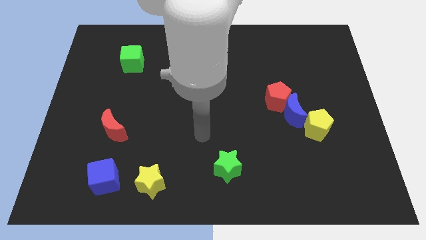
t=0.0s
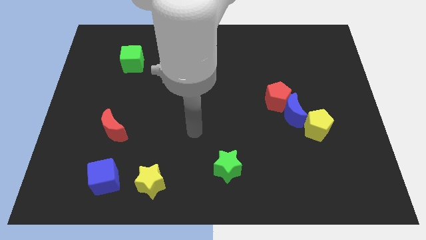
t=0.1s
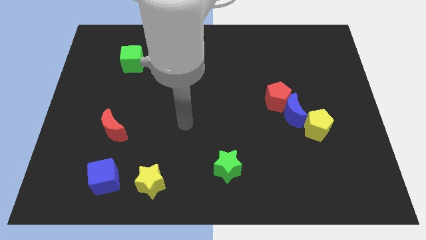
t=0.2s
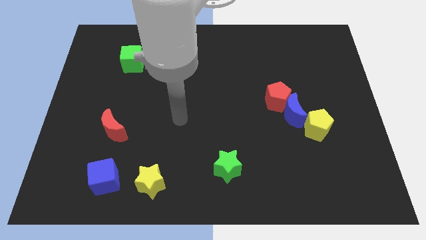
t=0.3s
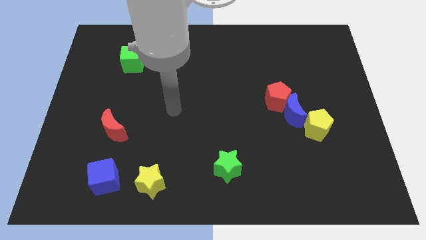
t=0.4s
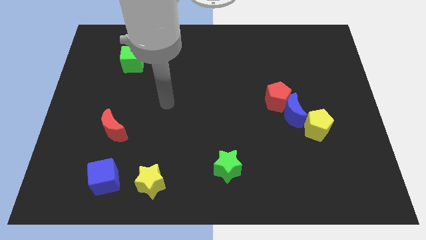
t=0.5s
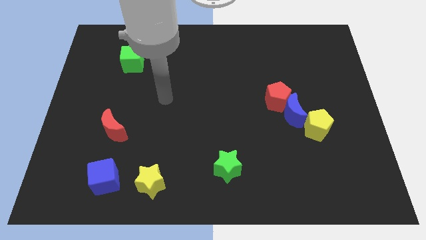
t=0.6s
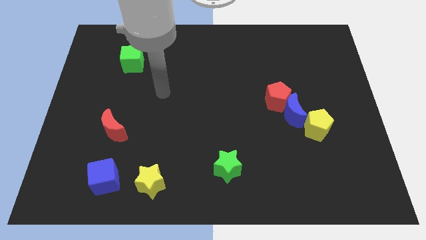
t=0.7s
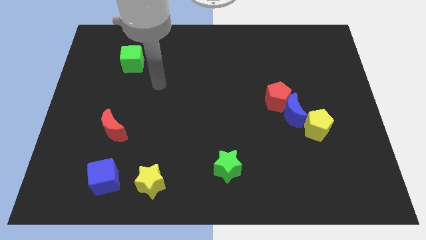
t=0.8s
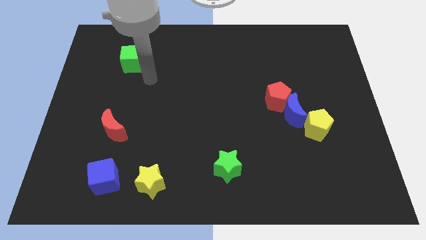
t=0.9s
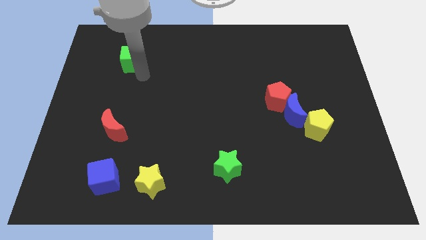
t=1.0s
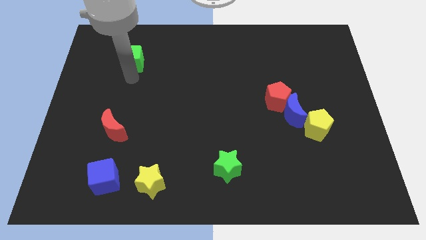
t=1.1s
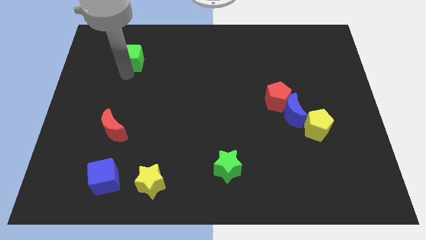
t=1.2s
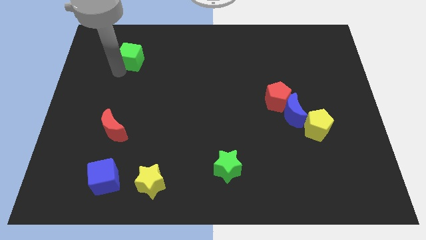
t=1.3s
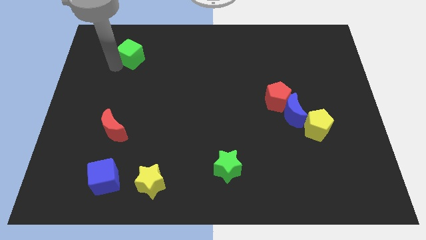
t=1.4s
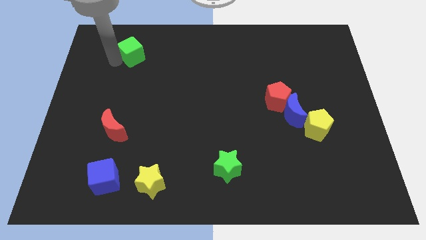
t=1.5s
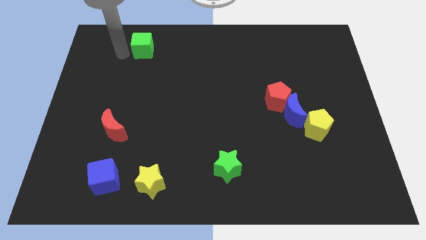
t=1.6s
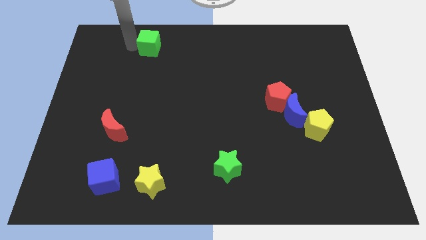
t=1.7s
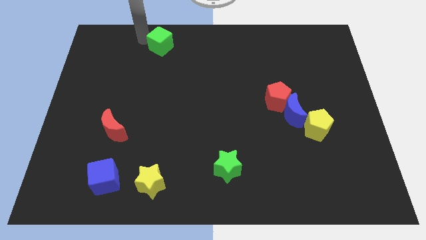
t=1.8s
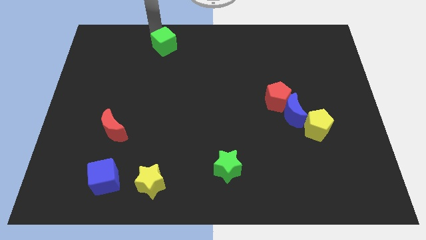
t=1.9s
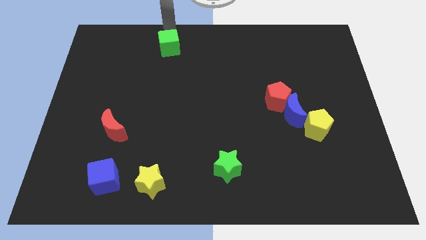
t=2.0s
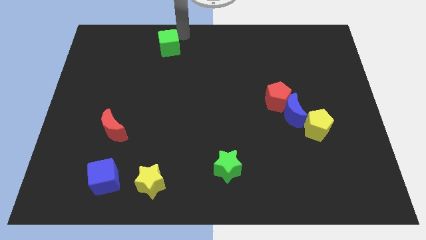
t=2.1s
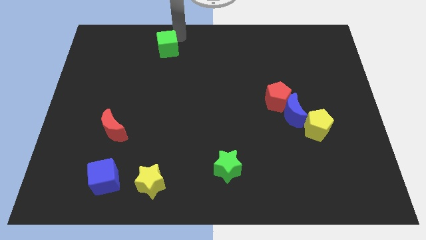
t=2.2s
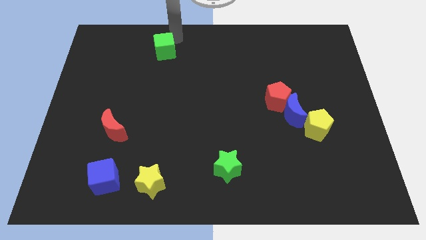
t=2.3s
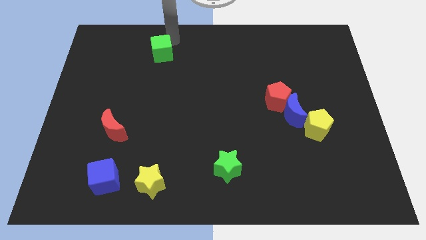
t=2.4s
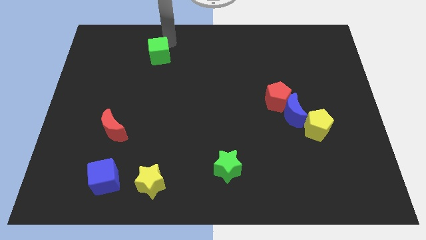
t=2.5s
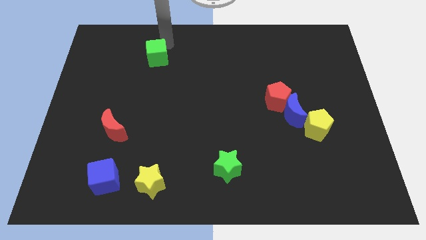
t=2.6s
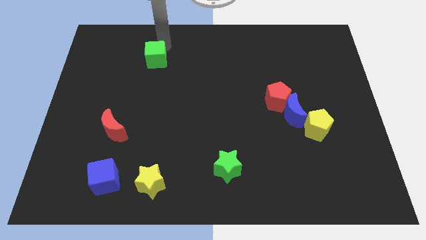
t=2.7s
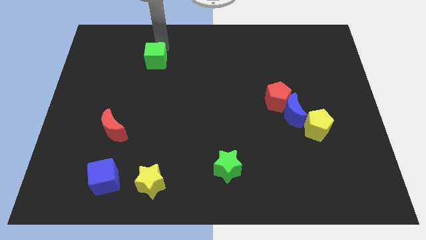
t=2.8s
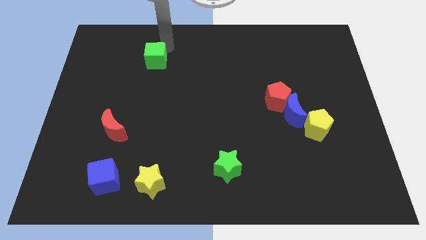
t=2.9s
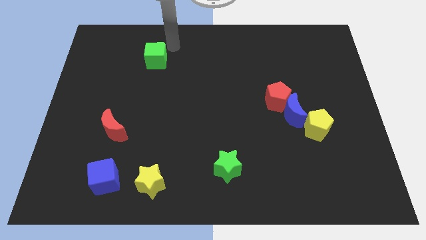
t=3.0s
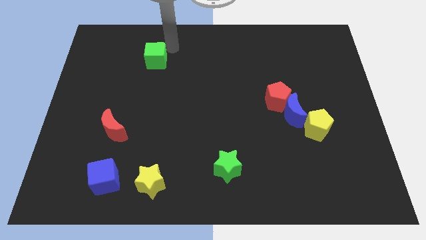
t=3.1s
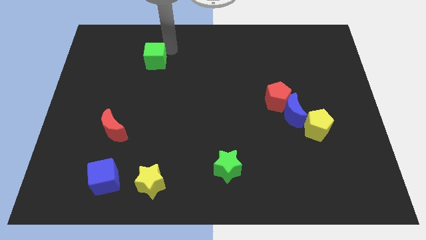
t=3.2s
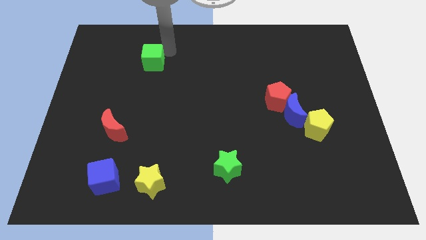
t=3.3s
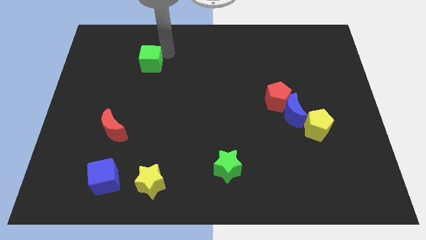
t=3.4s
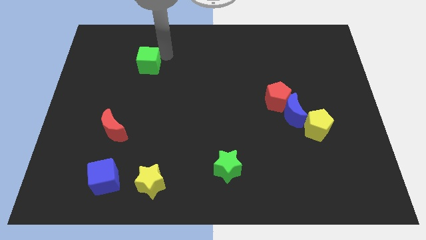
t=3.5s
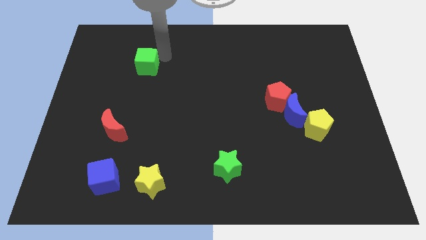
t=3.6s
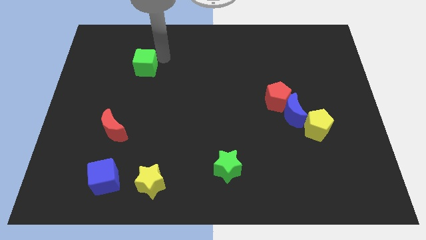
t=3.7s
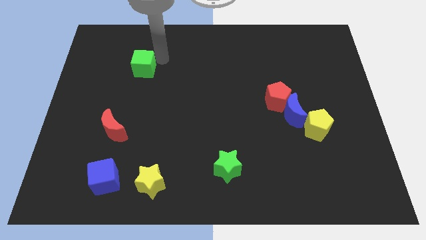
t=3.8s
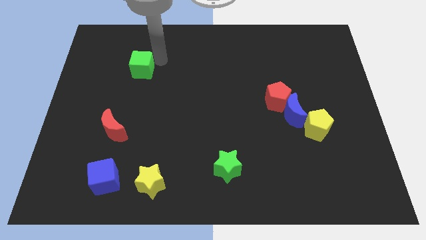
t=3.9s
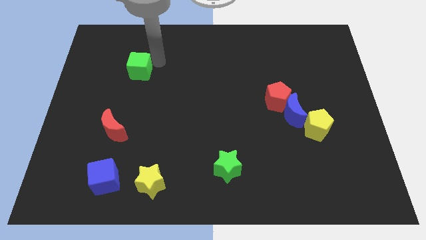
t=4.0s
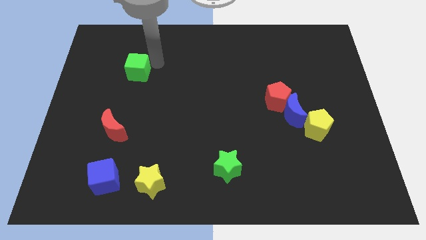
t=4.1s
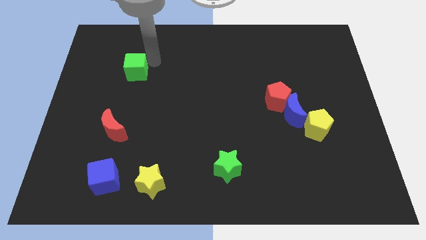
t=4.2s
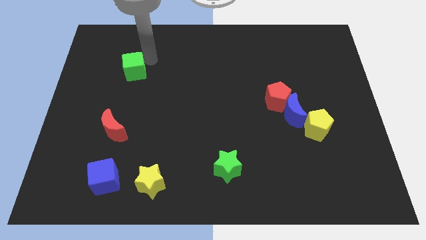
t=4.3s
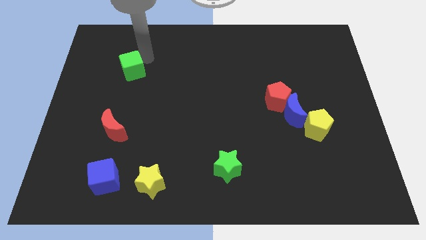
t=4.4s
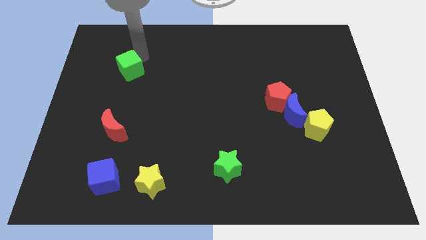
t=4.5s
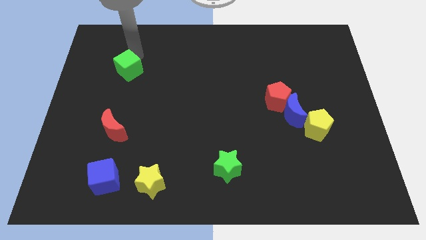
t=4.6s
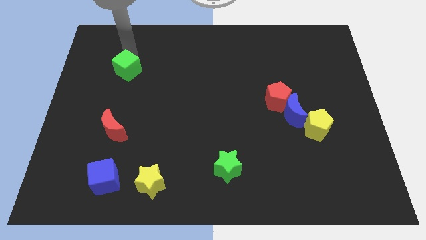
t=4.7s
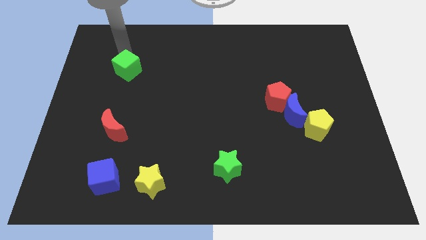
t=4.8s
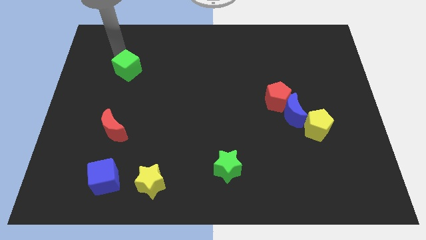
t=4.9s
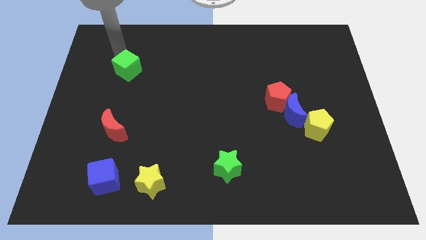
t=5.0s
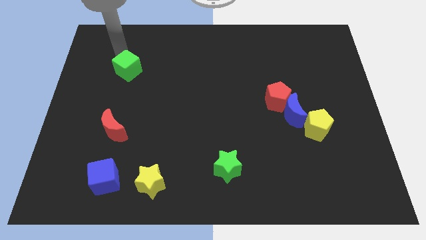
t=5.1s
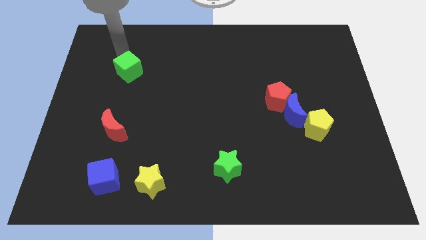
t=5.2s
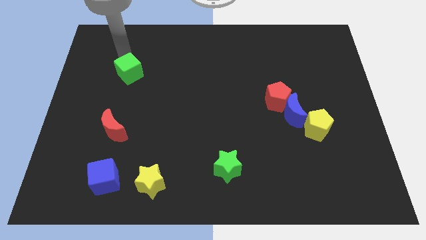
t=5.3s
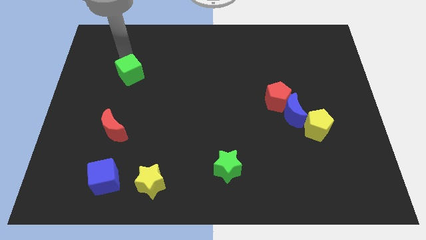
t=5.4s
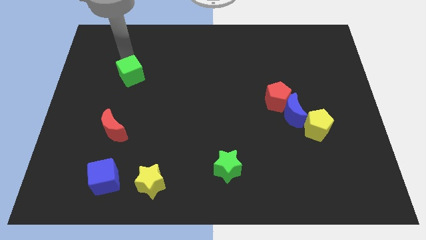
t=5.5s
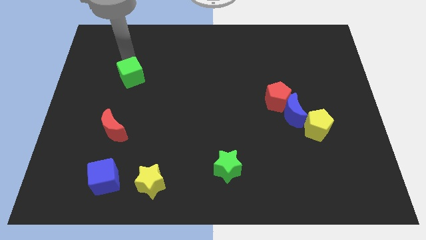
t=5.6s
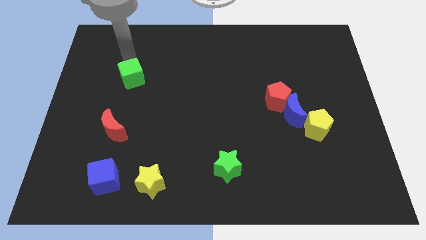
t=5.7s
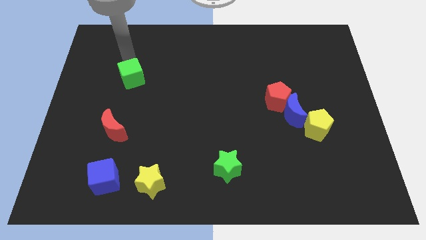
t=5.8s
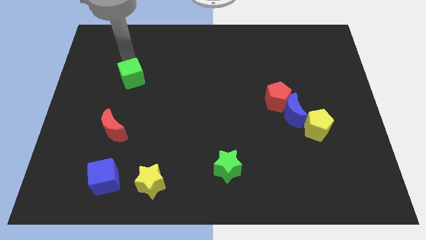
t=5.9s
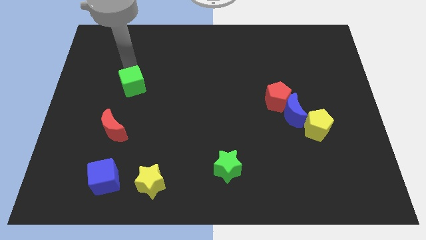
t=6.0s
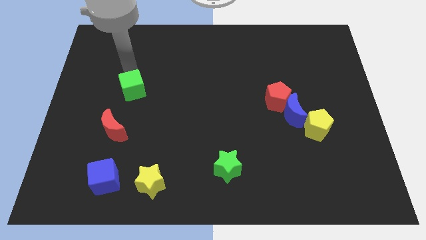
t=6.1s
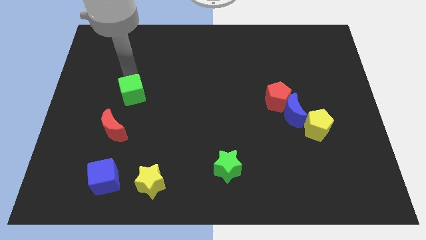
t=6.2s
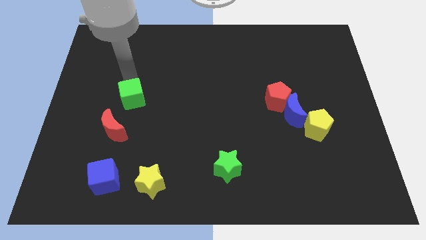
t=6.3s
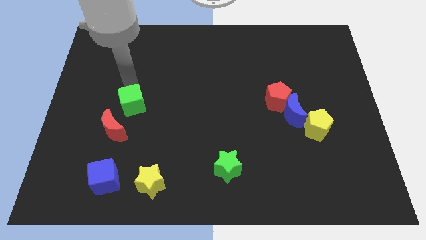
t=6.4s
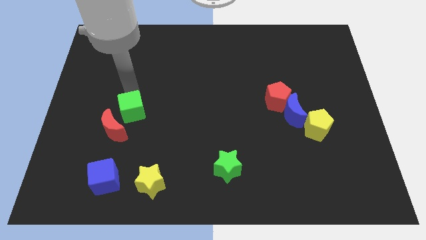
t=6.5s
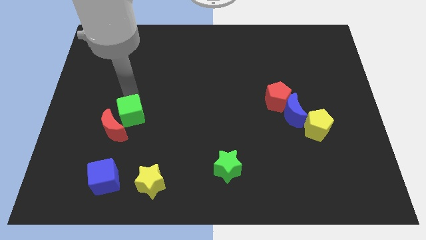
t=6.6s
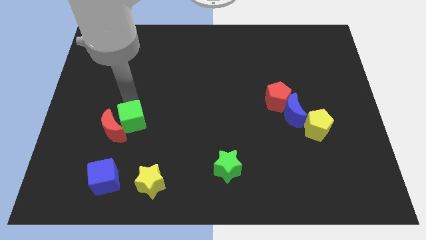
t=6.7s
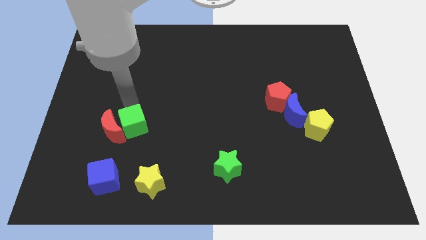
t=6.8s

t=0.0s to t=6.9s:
put the green cube to the bottom right of the red moon
